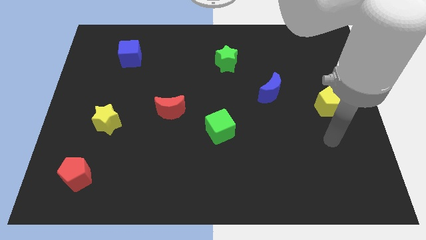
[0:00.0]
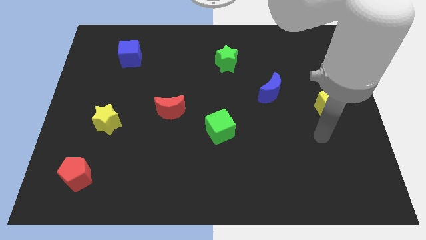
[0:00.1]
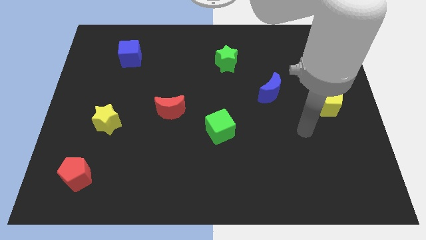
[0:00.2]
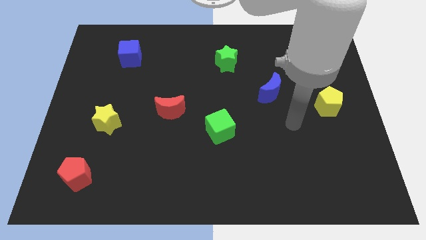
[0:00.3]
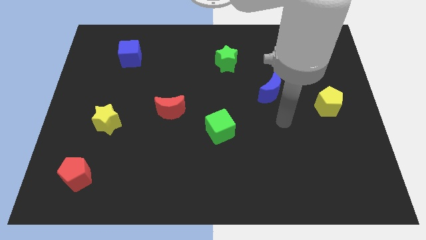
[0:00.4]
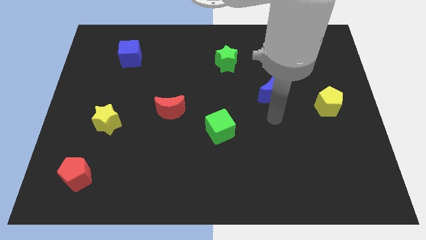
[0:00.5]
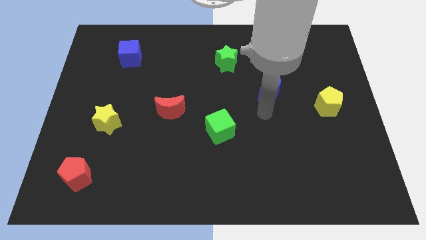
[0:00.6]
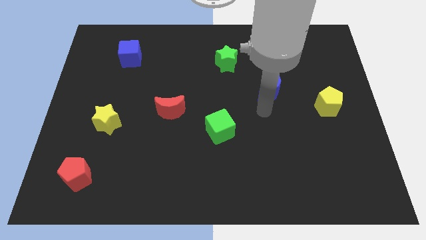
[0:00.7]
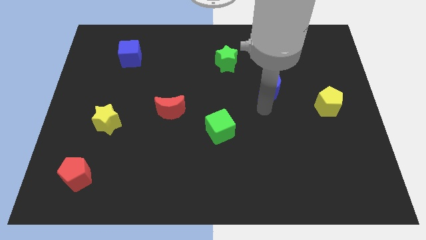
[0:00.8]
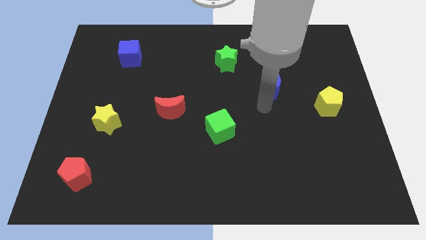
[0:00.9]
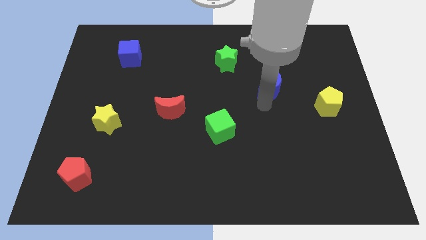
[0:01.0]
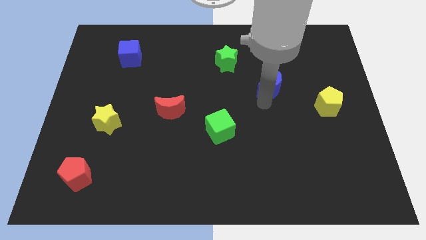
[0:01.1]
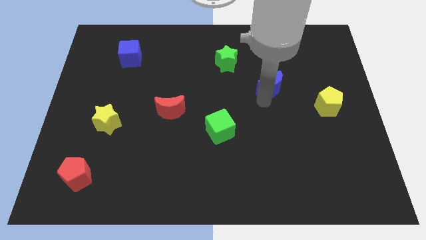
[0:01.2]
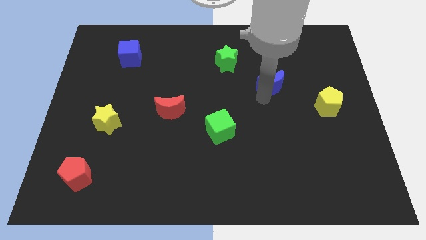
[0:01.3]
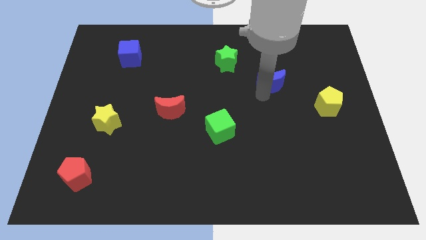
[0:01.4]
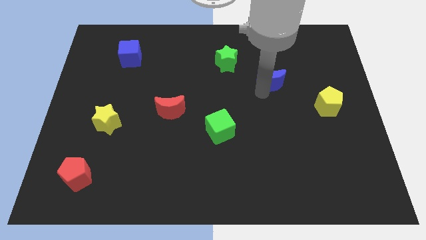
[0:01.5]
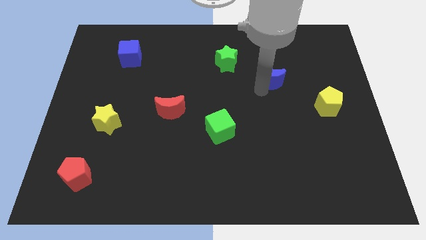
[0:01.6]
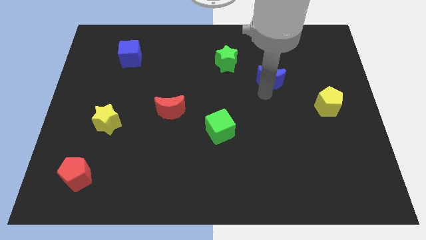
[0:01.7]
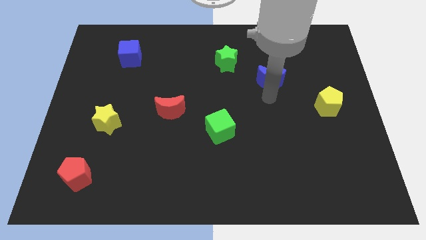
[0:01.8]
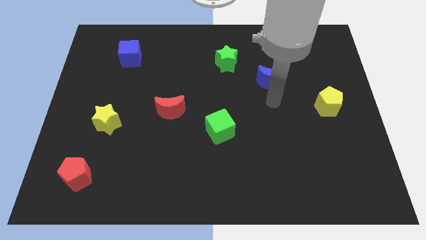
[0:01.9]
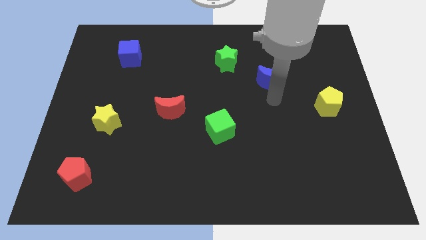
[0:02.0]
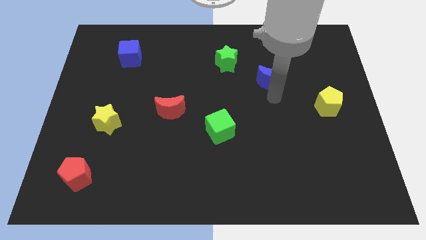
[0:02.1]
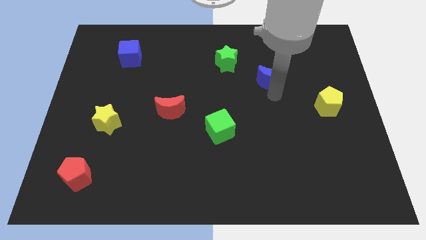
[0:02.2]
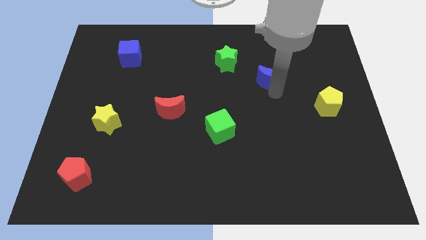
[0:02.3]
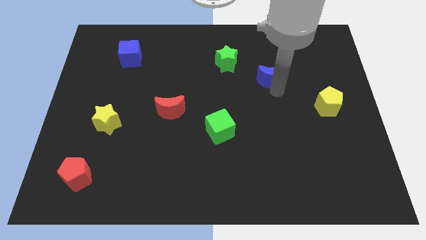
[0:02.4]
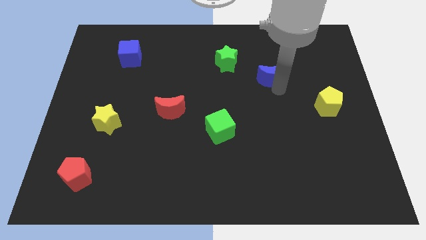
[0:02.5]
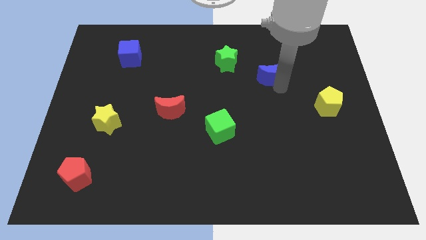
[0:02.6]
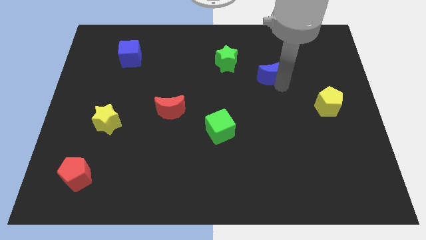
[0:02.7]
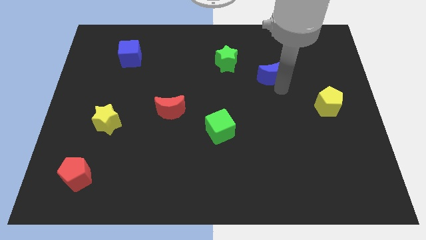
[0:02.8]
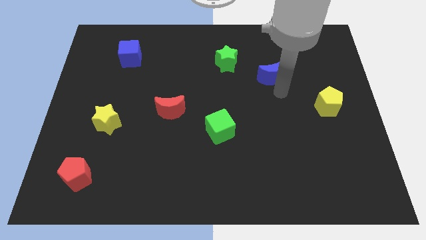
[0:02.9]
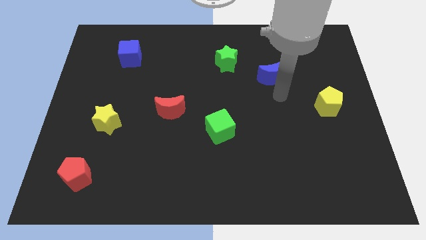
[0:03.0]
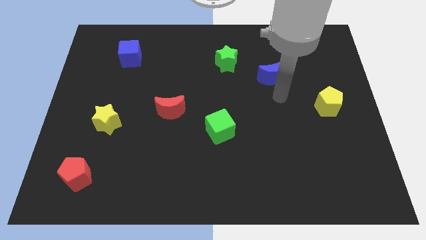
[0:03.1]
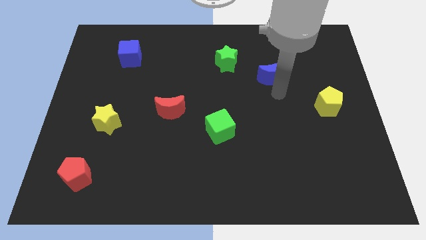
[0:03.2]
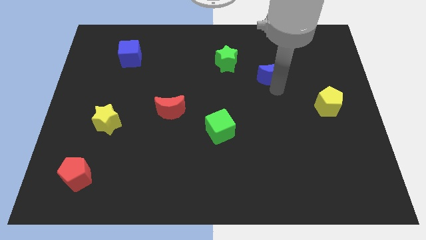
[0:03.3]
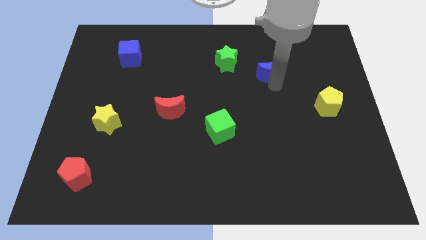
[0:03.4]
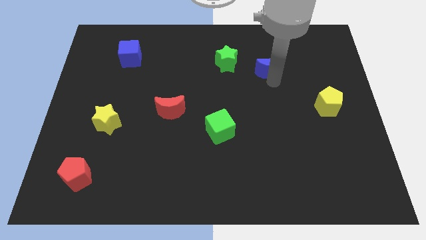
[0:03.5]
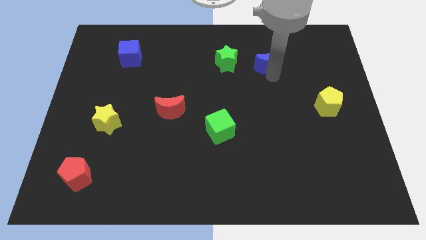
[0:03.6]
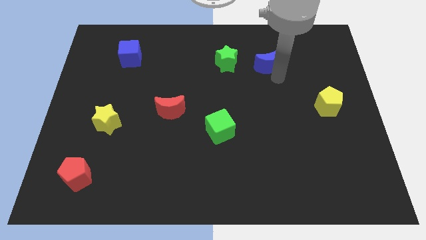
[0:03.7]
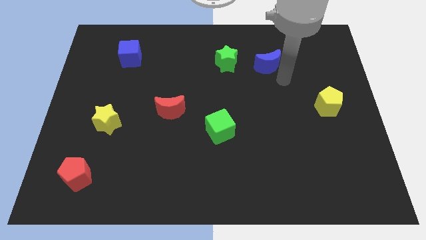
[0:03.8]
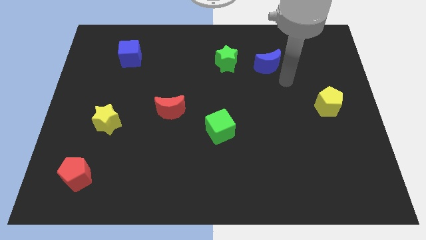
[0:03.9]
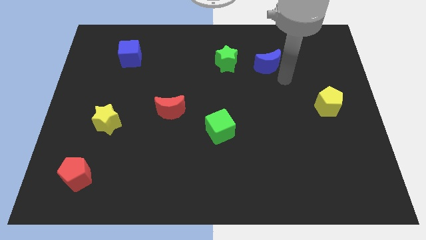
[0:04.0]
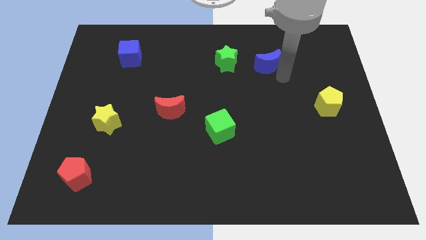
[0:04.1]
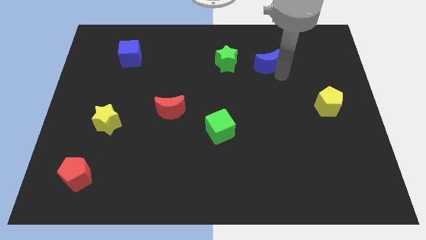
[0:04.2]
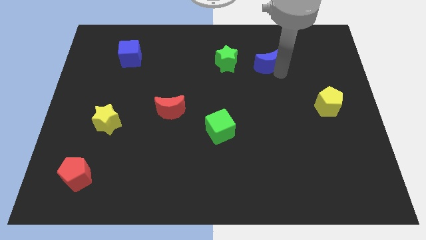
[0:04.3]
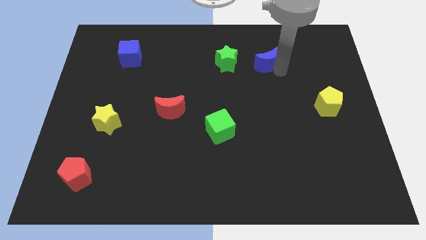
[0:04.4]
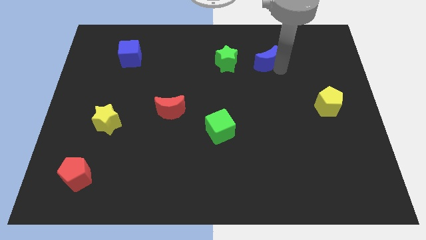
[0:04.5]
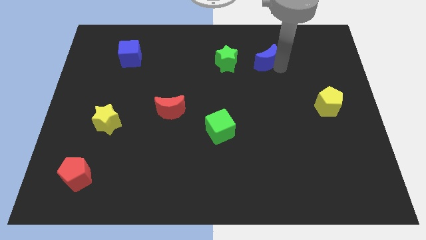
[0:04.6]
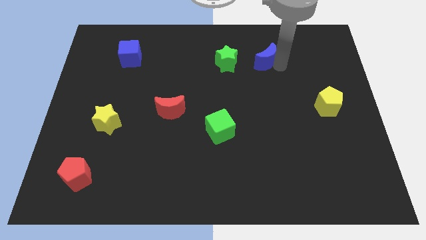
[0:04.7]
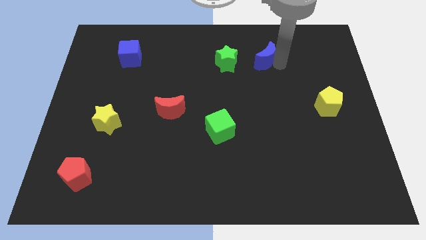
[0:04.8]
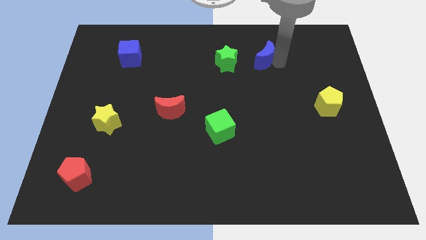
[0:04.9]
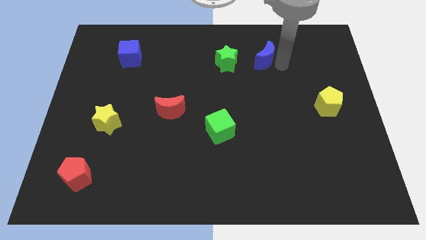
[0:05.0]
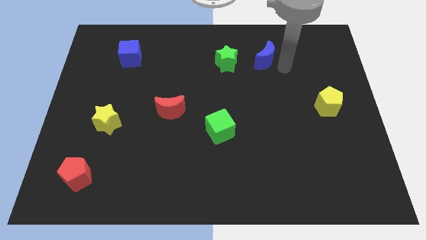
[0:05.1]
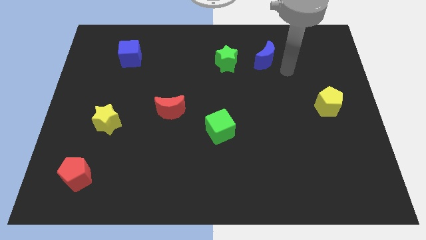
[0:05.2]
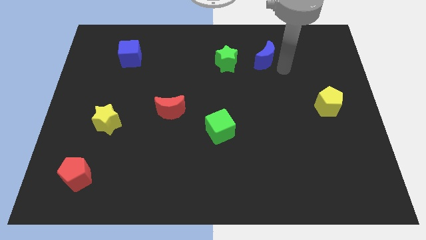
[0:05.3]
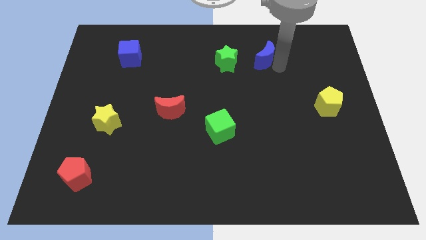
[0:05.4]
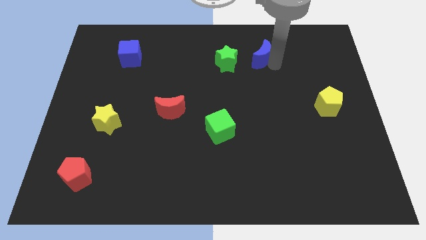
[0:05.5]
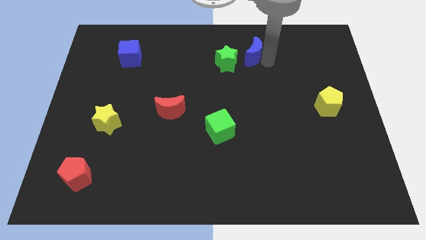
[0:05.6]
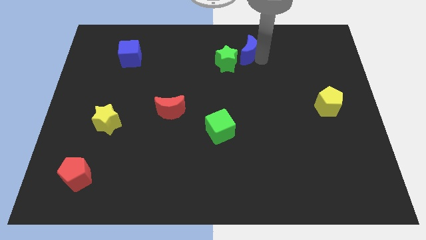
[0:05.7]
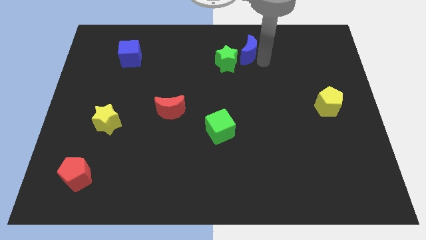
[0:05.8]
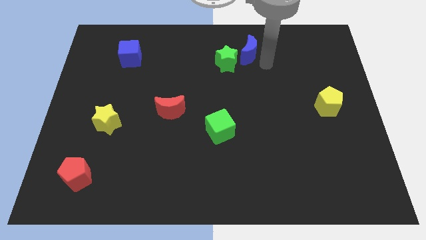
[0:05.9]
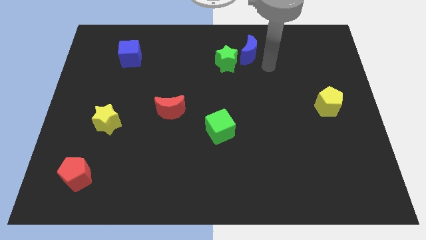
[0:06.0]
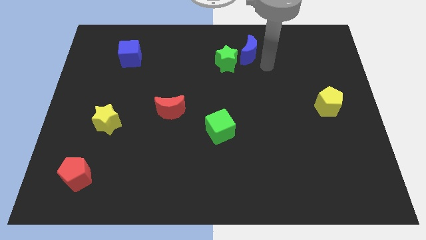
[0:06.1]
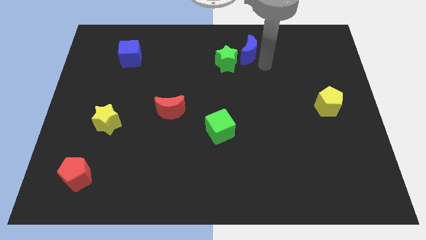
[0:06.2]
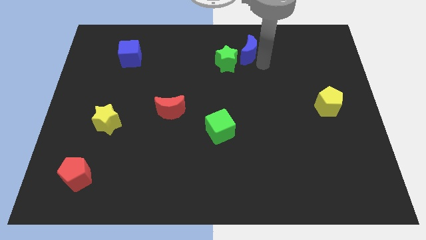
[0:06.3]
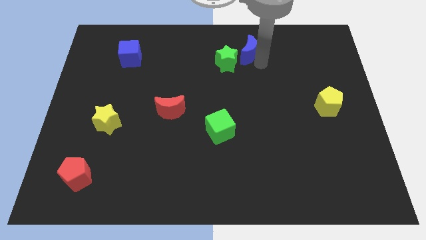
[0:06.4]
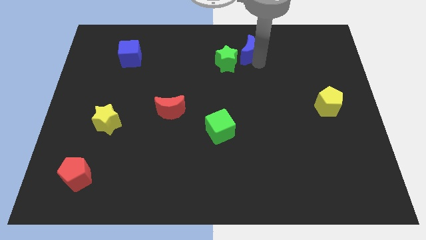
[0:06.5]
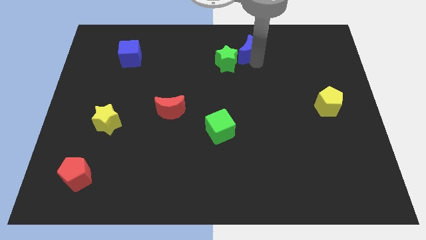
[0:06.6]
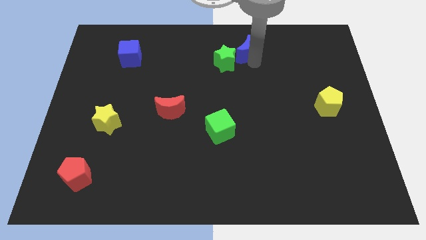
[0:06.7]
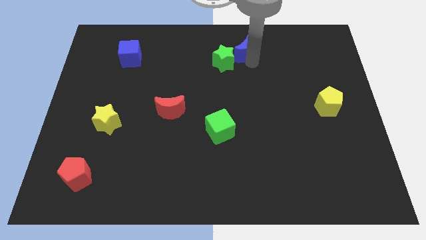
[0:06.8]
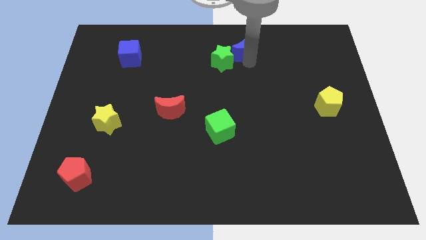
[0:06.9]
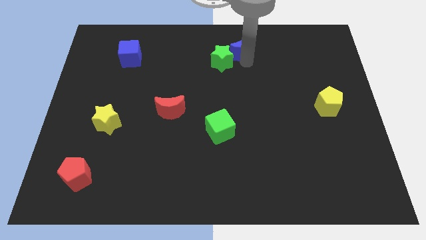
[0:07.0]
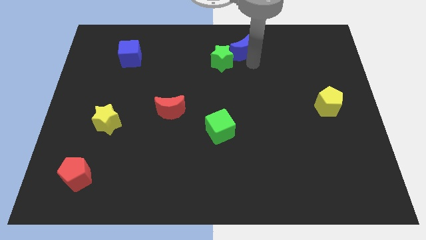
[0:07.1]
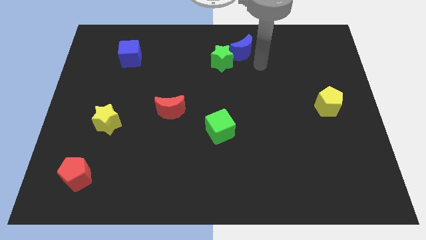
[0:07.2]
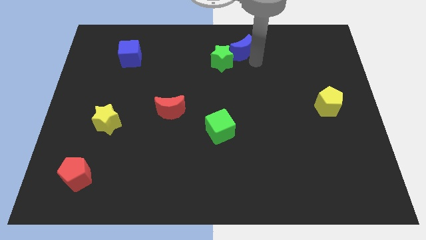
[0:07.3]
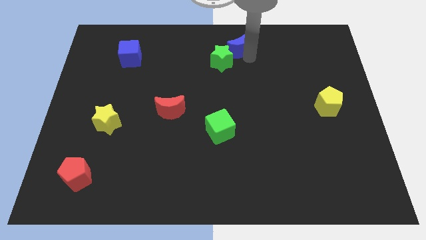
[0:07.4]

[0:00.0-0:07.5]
put the blue moon to the top side
